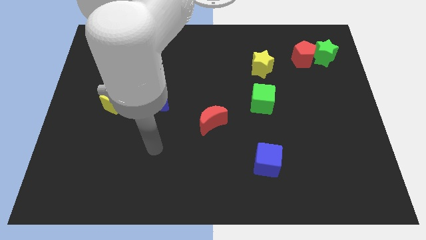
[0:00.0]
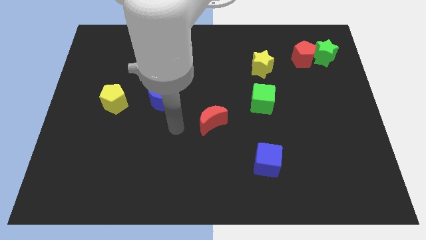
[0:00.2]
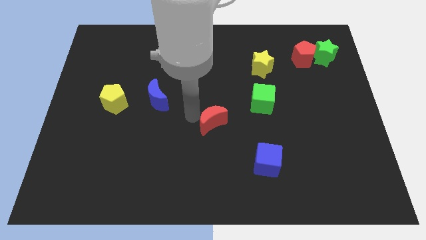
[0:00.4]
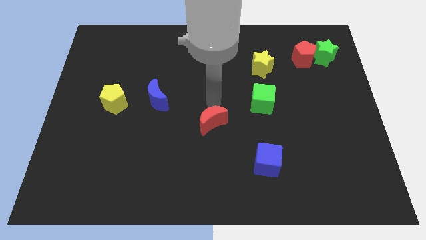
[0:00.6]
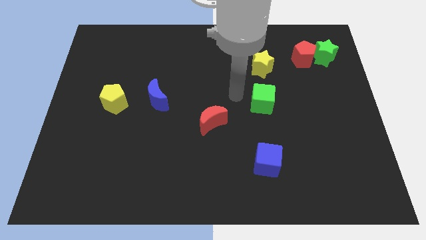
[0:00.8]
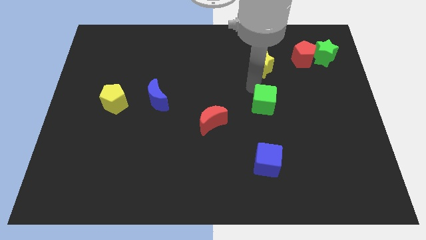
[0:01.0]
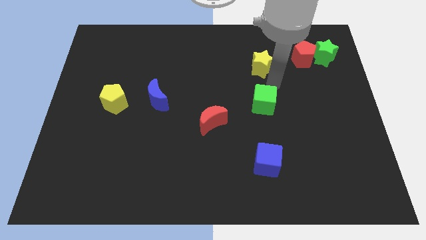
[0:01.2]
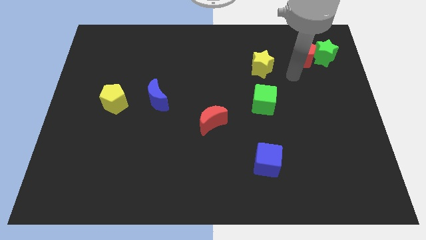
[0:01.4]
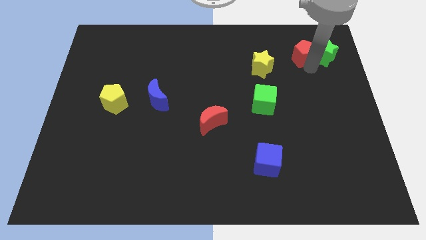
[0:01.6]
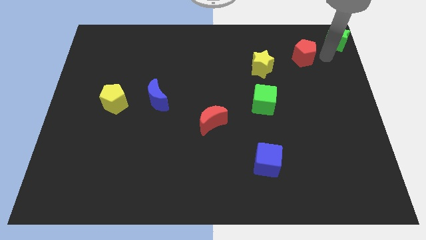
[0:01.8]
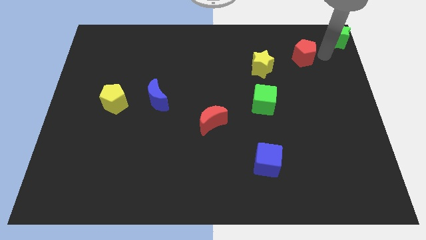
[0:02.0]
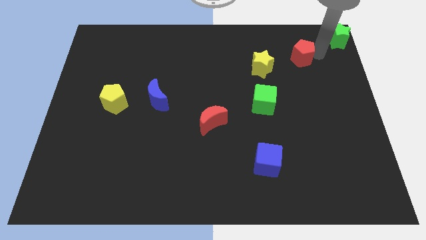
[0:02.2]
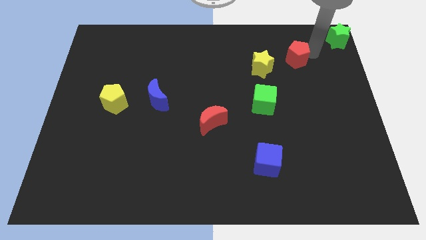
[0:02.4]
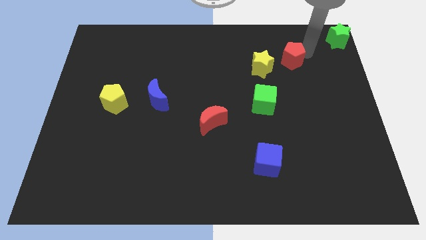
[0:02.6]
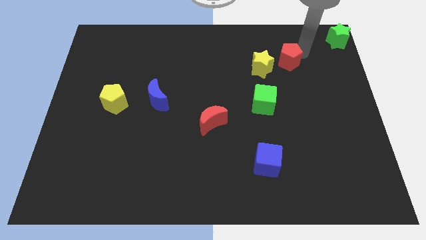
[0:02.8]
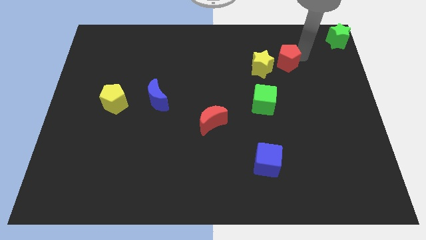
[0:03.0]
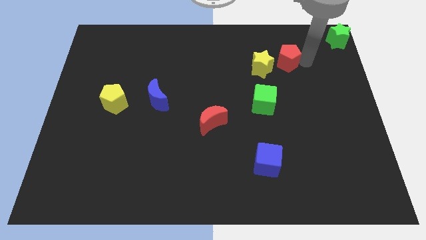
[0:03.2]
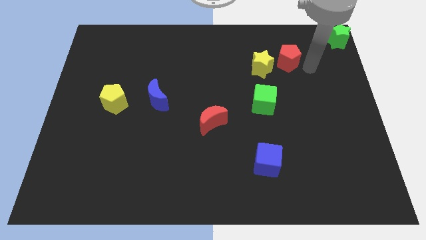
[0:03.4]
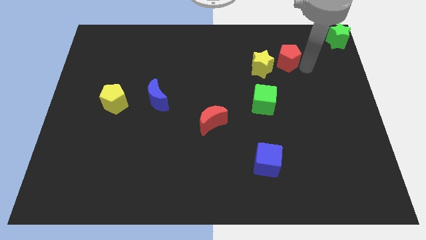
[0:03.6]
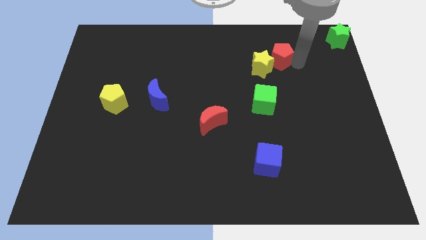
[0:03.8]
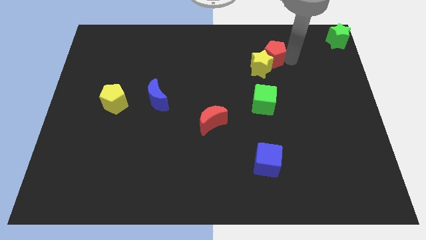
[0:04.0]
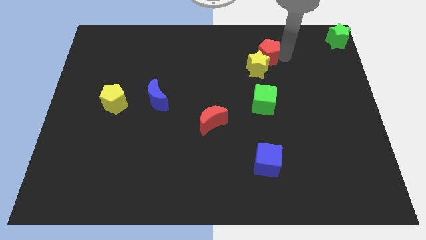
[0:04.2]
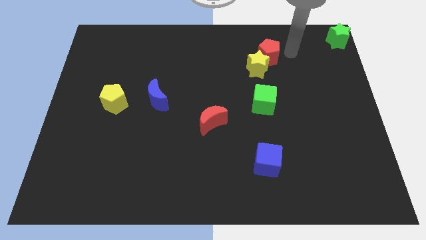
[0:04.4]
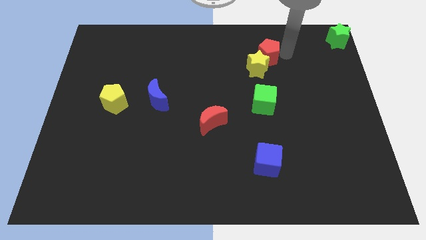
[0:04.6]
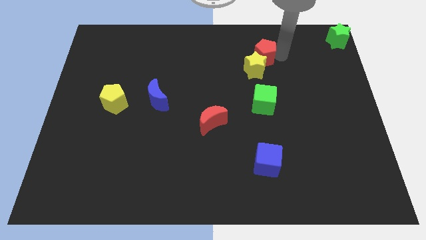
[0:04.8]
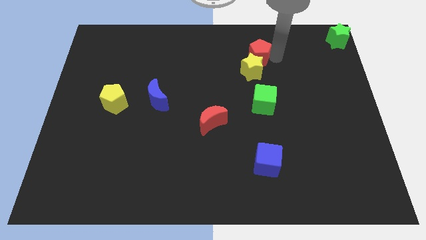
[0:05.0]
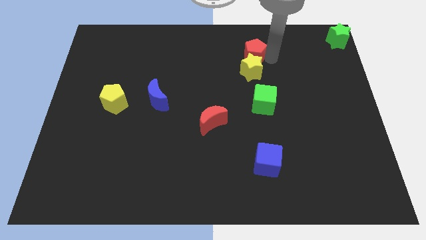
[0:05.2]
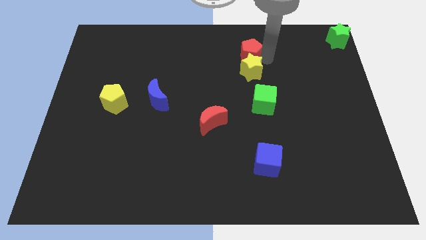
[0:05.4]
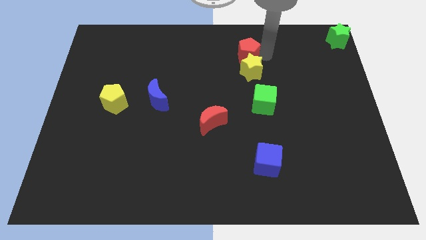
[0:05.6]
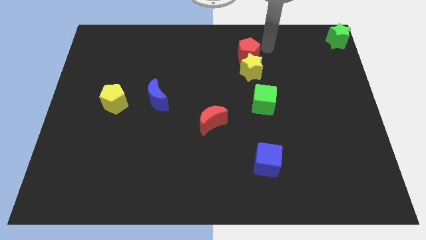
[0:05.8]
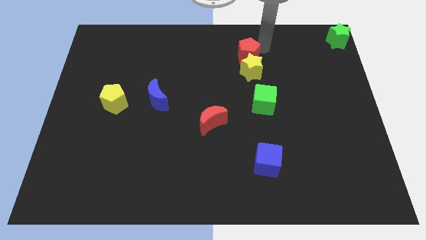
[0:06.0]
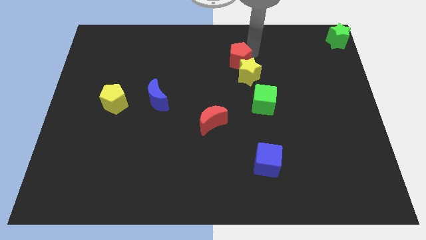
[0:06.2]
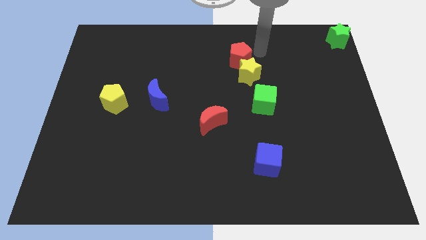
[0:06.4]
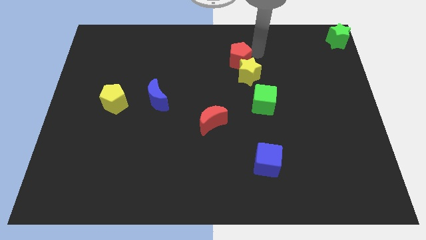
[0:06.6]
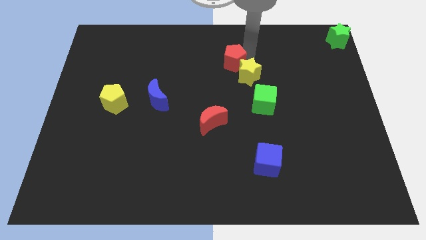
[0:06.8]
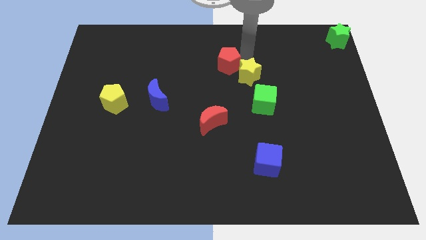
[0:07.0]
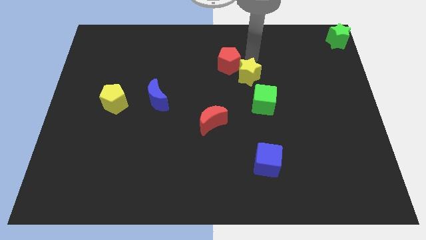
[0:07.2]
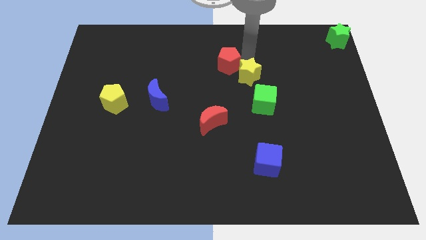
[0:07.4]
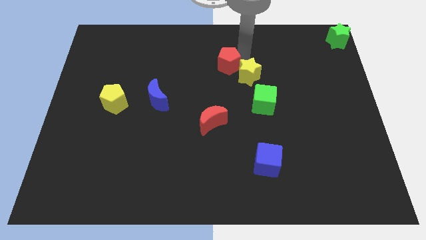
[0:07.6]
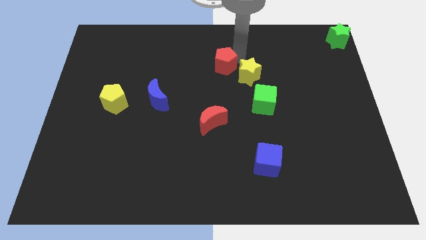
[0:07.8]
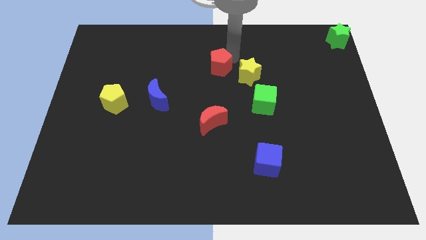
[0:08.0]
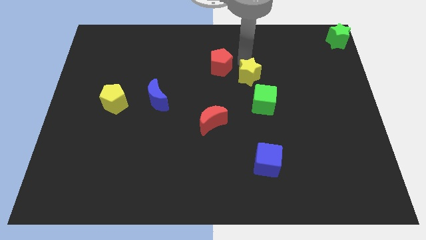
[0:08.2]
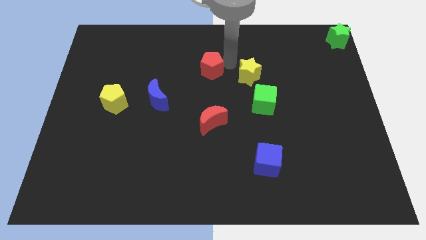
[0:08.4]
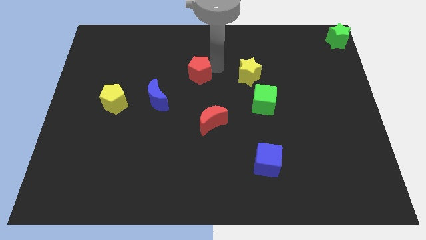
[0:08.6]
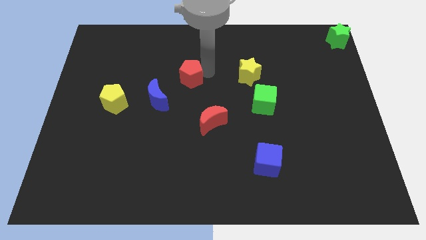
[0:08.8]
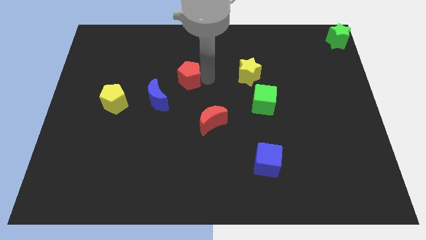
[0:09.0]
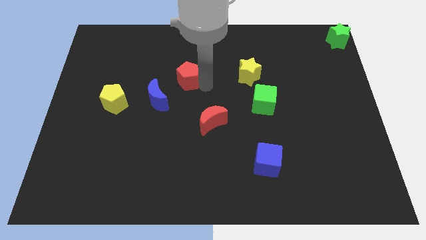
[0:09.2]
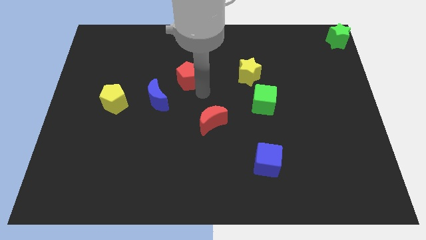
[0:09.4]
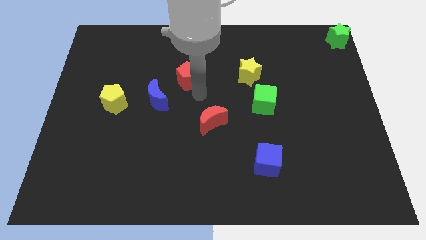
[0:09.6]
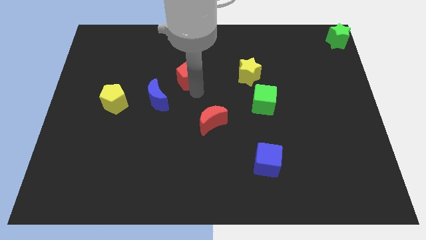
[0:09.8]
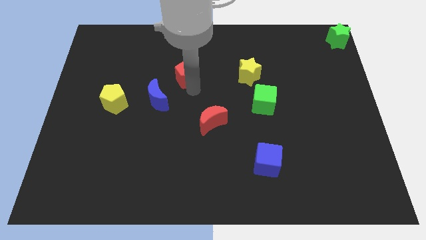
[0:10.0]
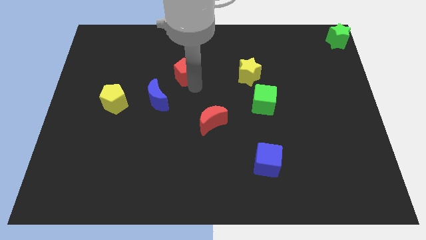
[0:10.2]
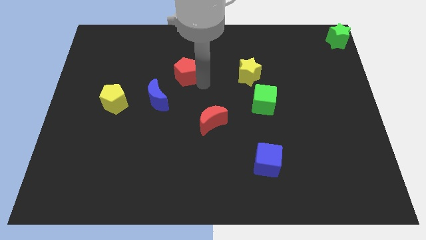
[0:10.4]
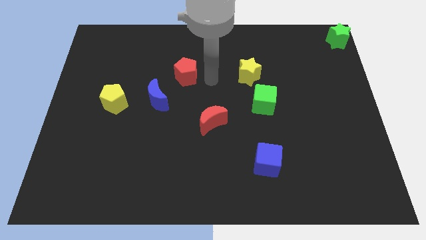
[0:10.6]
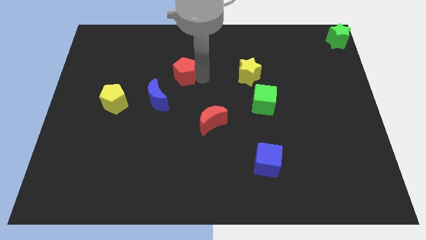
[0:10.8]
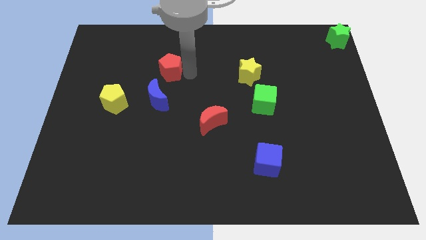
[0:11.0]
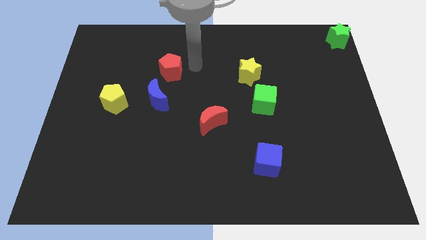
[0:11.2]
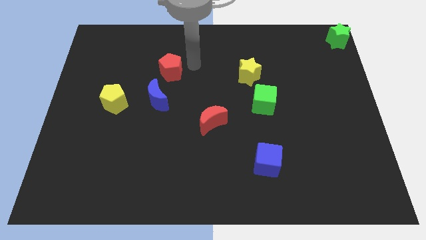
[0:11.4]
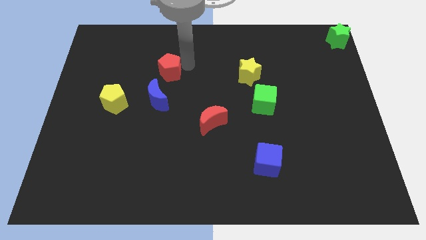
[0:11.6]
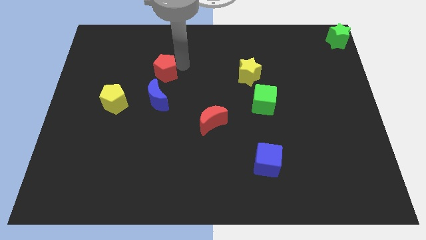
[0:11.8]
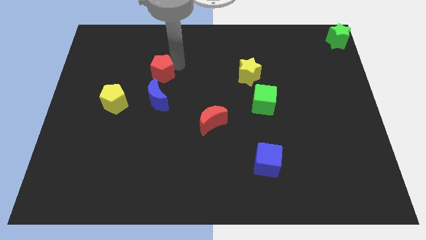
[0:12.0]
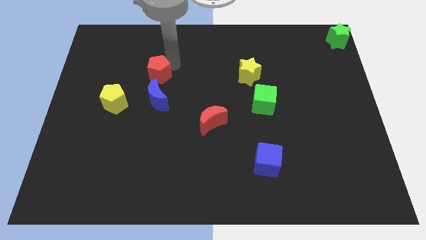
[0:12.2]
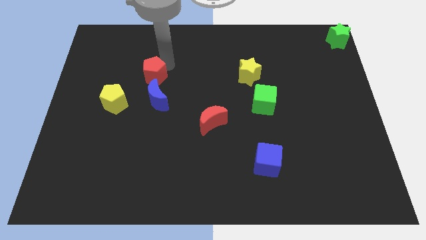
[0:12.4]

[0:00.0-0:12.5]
slide the red pentagon to the top right of the yellow pentagon

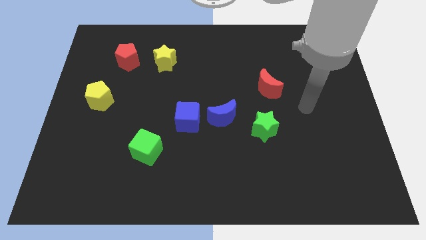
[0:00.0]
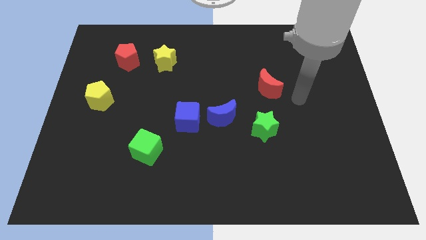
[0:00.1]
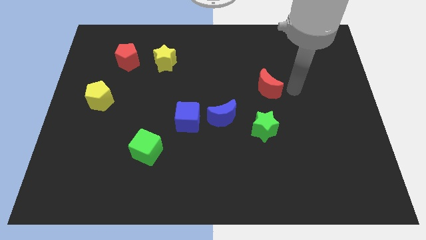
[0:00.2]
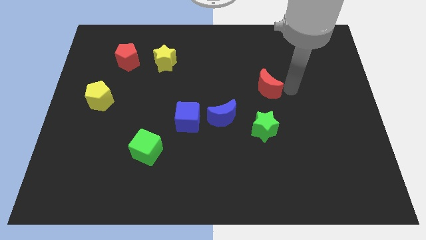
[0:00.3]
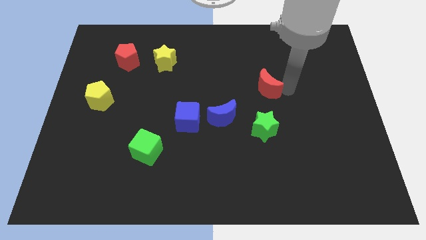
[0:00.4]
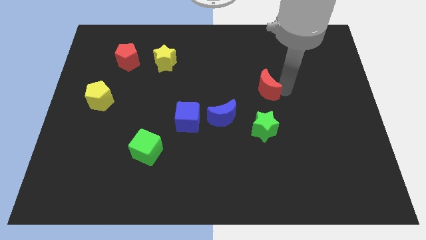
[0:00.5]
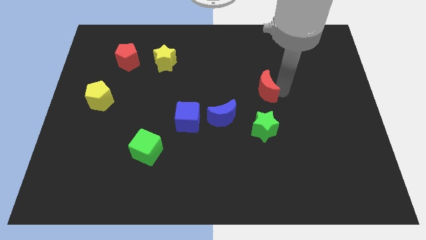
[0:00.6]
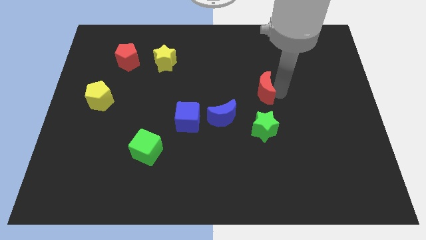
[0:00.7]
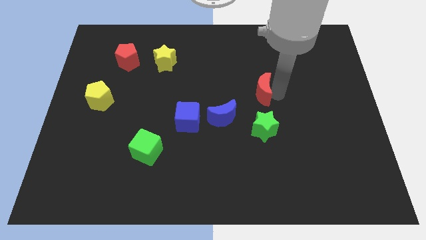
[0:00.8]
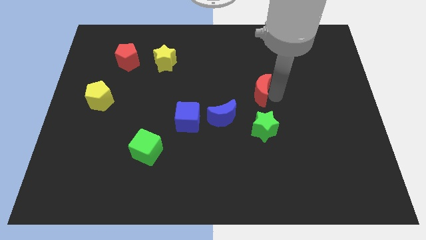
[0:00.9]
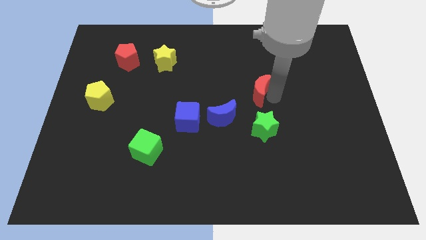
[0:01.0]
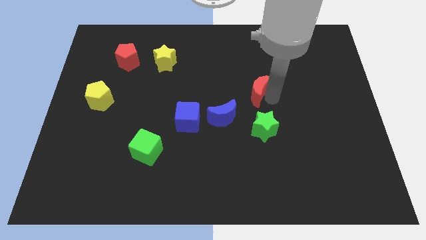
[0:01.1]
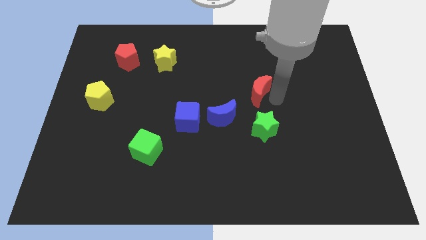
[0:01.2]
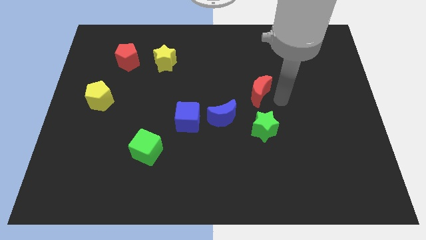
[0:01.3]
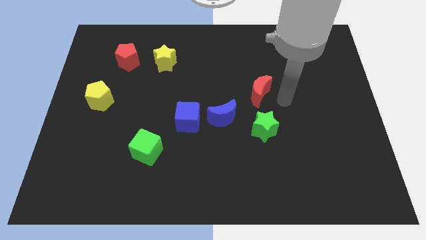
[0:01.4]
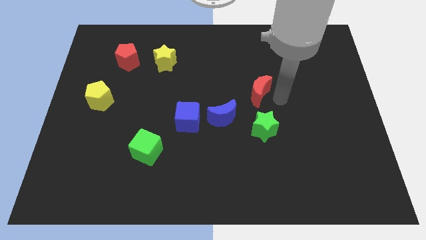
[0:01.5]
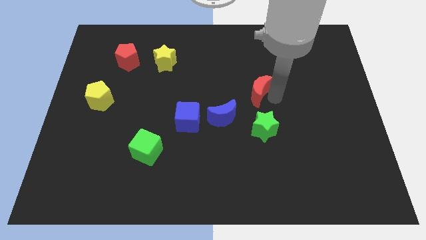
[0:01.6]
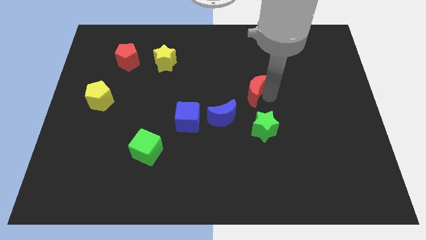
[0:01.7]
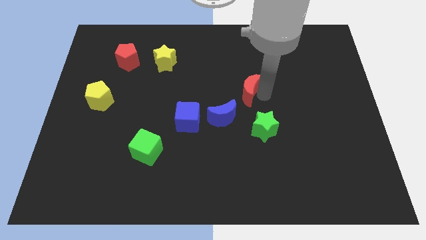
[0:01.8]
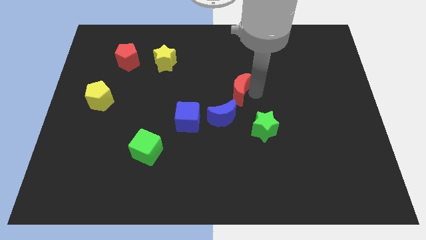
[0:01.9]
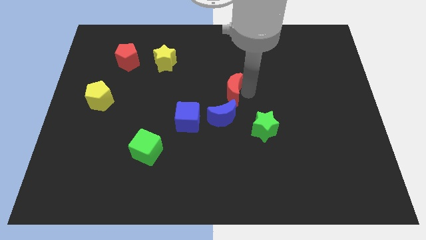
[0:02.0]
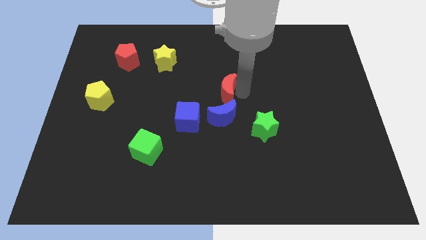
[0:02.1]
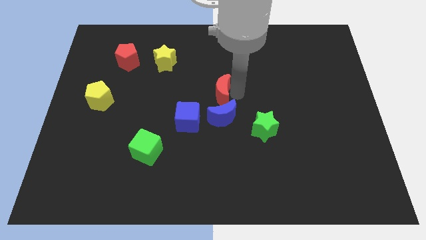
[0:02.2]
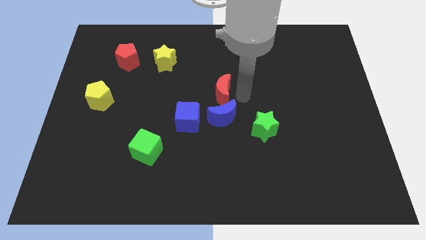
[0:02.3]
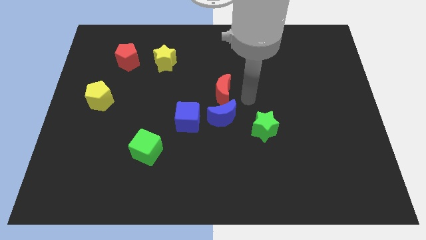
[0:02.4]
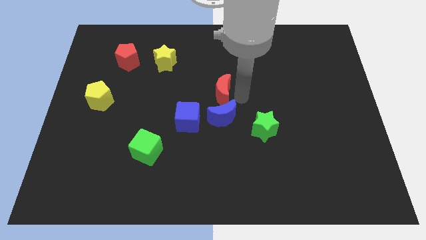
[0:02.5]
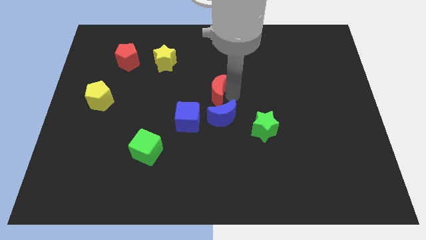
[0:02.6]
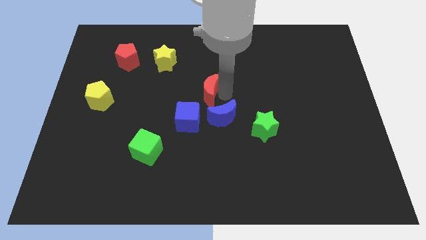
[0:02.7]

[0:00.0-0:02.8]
move the red moon above the blue cube
